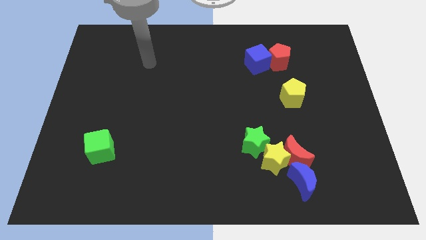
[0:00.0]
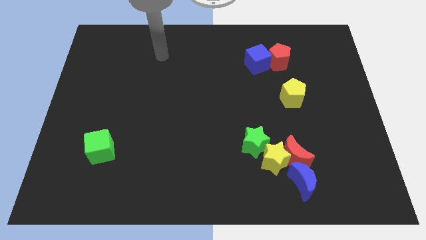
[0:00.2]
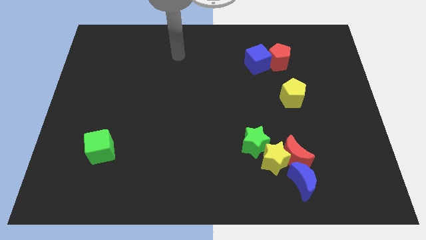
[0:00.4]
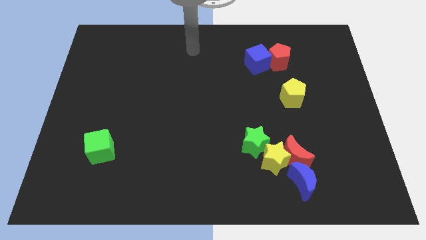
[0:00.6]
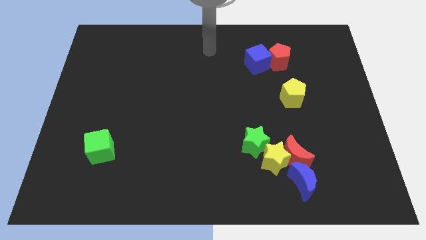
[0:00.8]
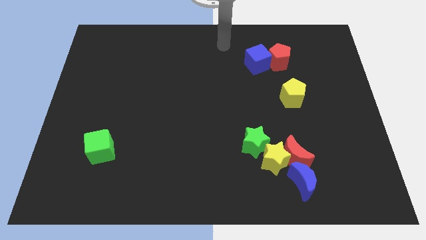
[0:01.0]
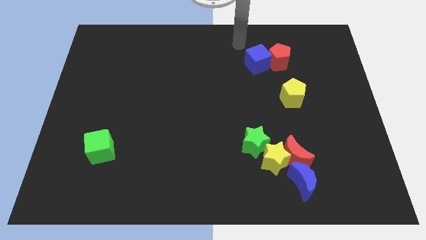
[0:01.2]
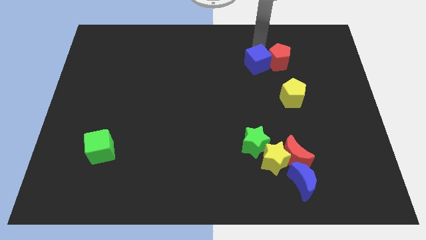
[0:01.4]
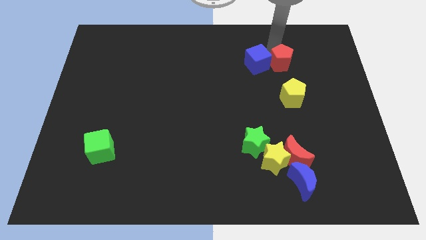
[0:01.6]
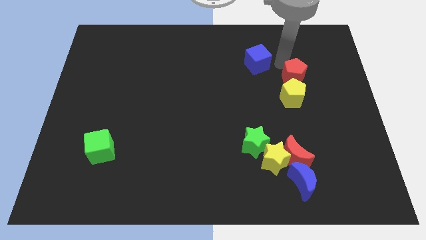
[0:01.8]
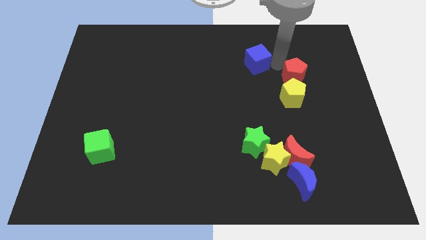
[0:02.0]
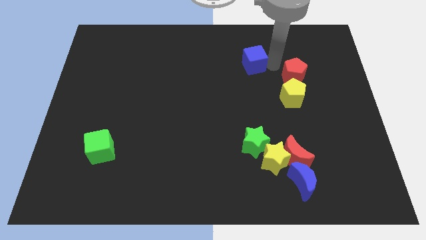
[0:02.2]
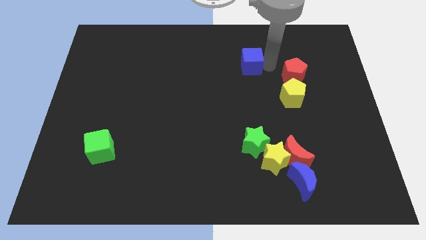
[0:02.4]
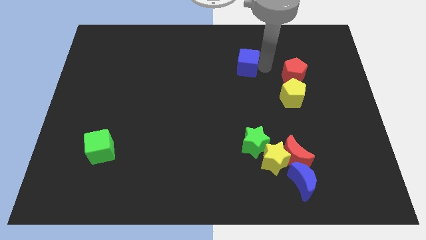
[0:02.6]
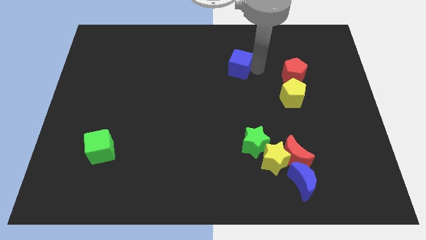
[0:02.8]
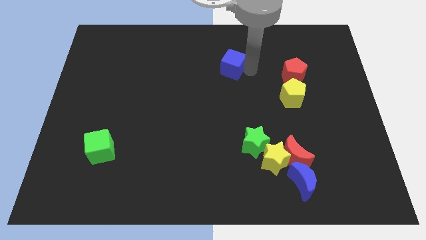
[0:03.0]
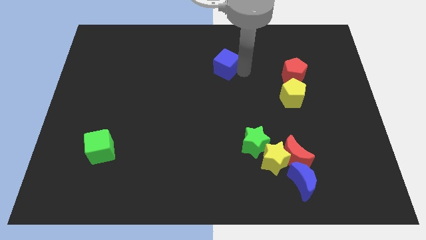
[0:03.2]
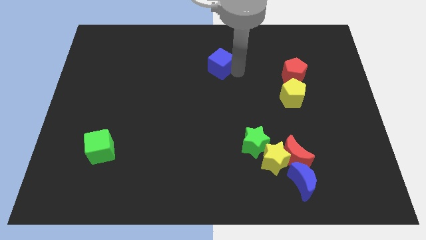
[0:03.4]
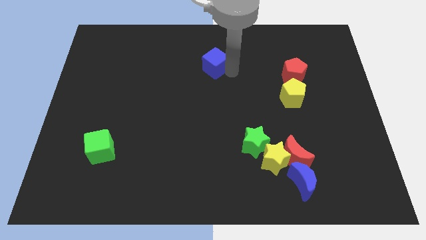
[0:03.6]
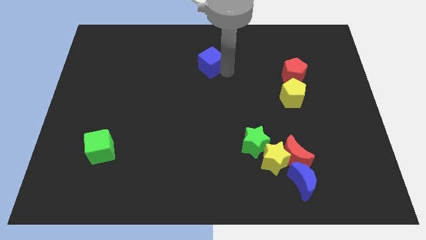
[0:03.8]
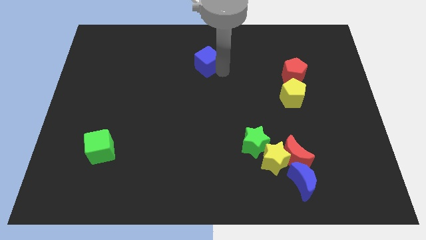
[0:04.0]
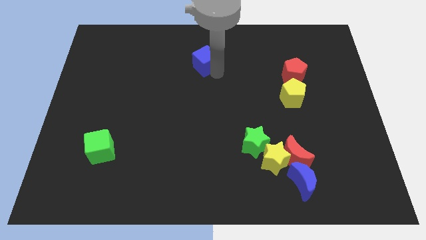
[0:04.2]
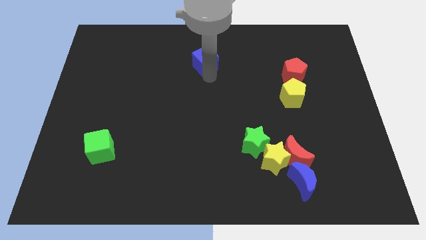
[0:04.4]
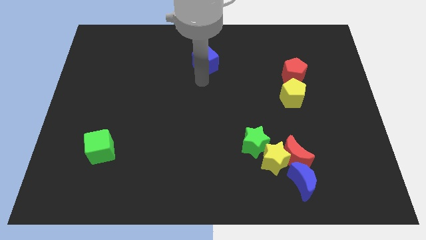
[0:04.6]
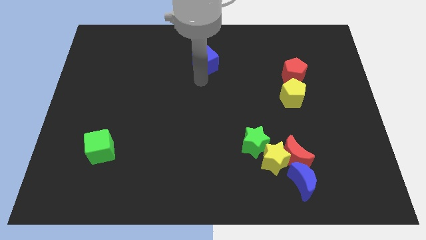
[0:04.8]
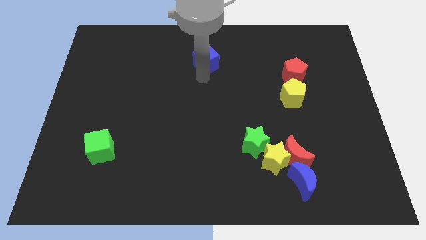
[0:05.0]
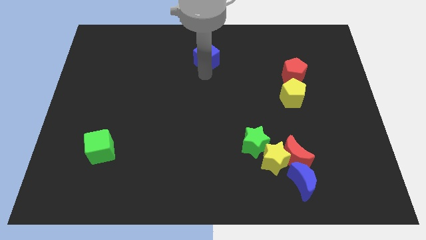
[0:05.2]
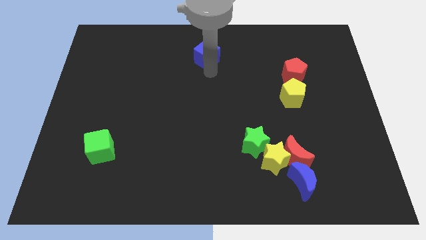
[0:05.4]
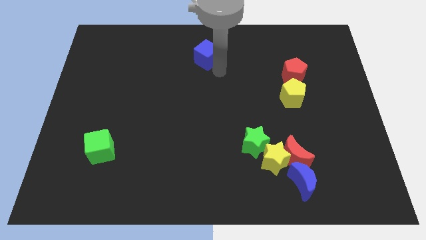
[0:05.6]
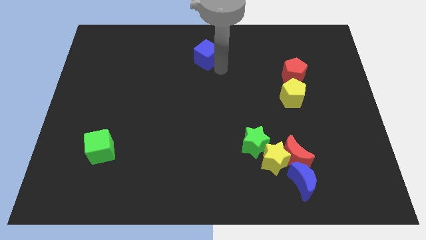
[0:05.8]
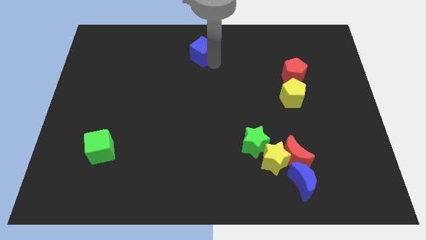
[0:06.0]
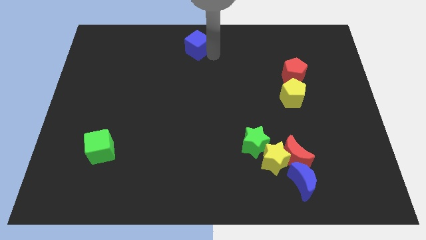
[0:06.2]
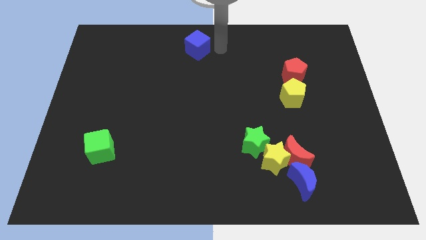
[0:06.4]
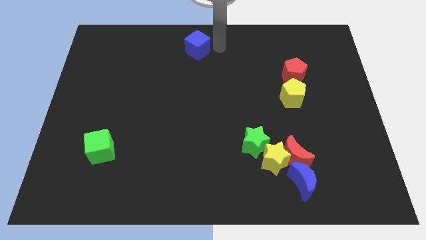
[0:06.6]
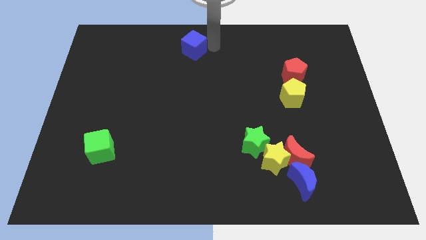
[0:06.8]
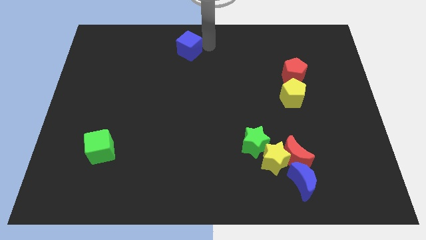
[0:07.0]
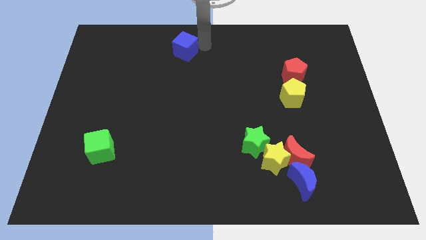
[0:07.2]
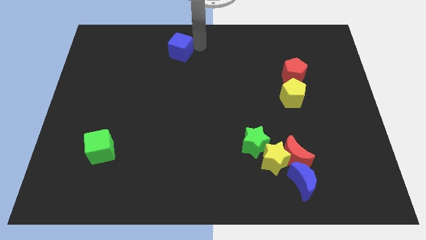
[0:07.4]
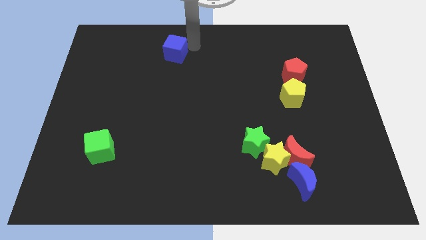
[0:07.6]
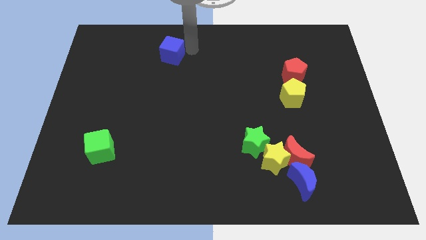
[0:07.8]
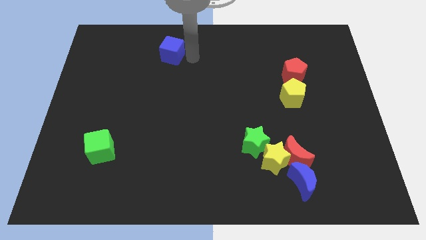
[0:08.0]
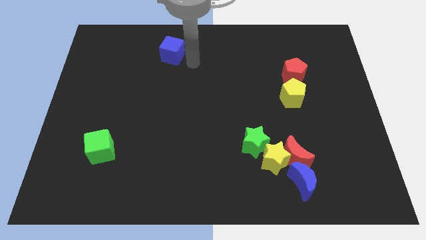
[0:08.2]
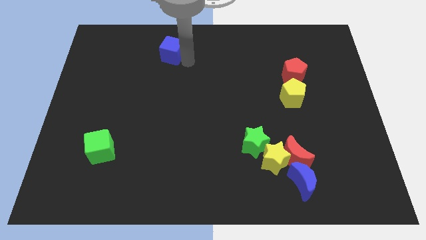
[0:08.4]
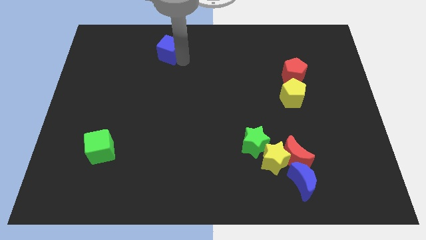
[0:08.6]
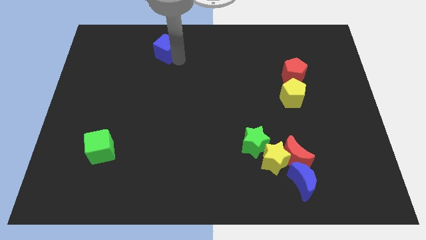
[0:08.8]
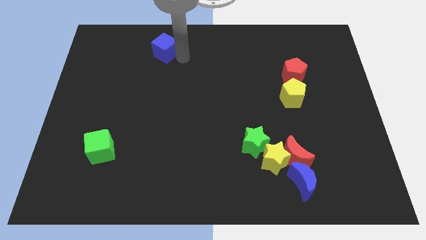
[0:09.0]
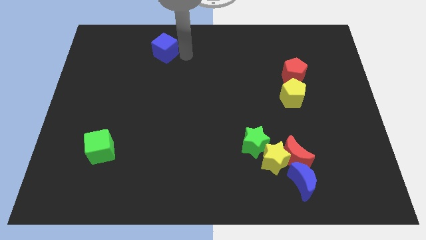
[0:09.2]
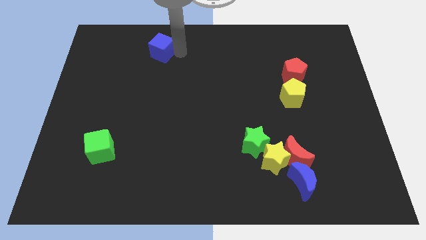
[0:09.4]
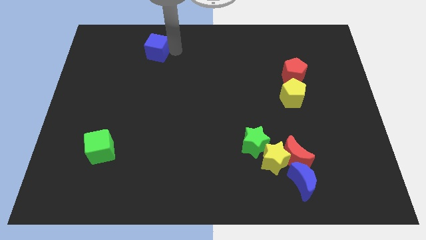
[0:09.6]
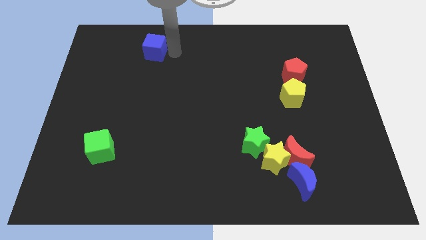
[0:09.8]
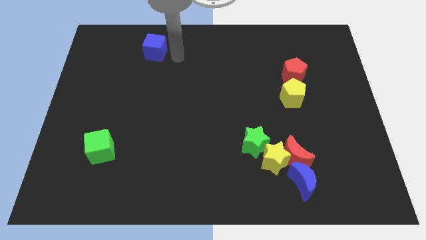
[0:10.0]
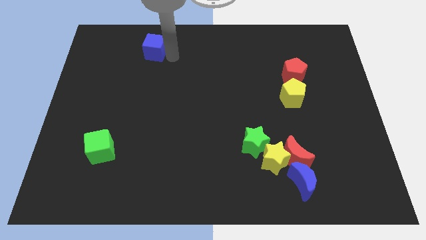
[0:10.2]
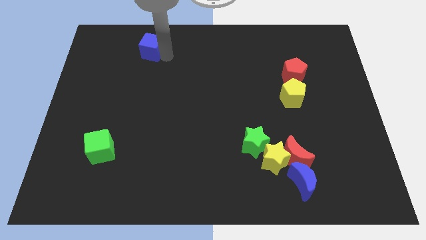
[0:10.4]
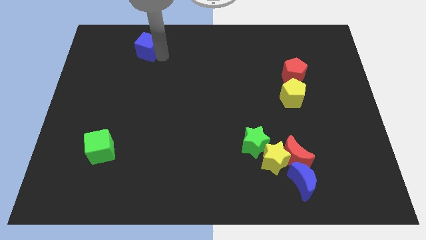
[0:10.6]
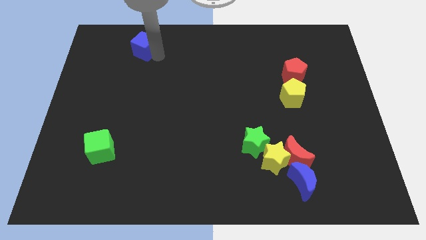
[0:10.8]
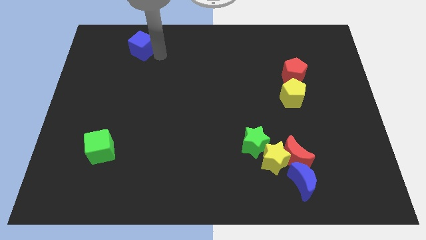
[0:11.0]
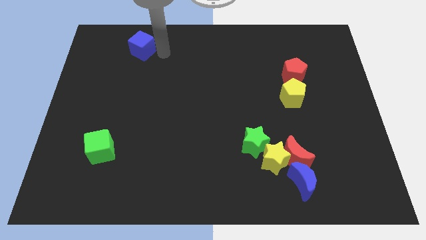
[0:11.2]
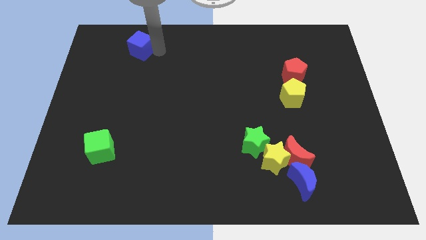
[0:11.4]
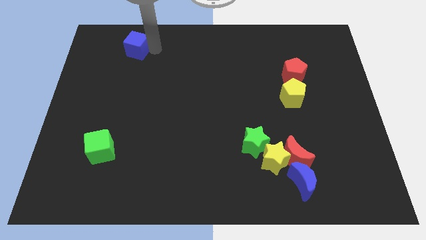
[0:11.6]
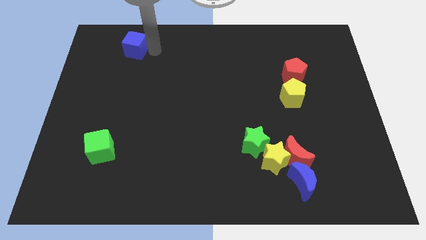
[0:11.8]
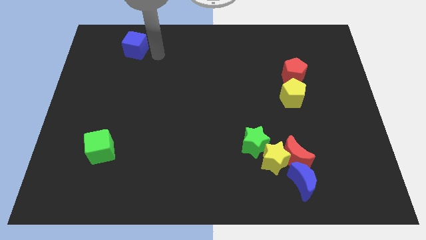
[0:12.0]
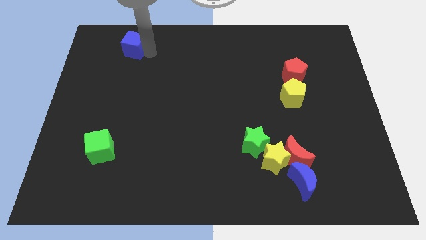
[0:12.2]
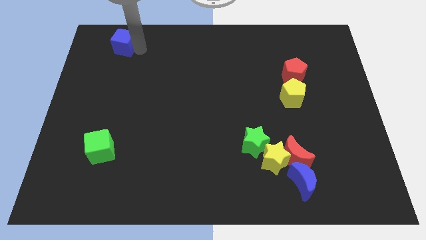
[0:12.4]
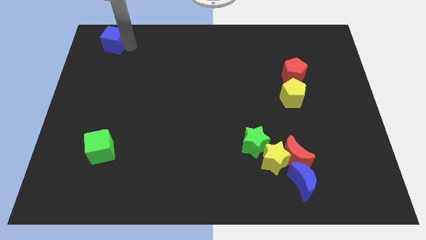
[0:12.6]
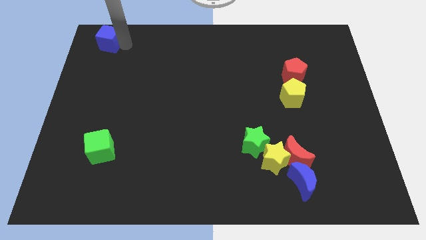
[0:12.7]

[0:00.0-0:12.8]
put the blue cube to the top left of the board
